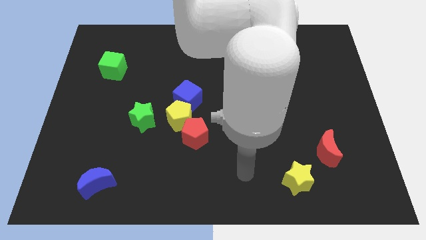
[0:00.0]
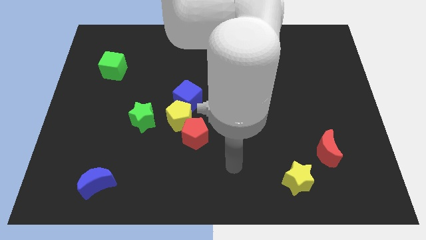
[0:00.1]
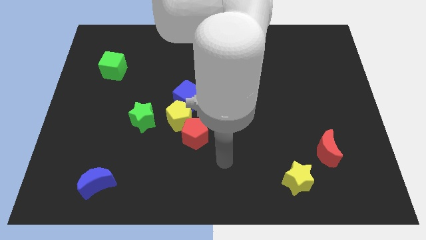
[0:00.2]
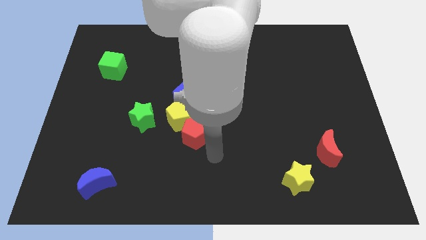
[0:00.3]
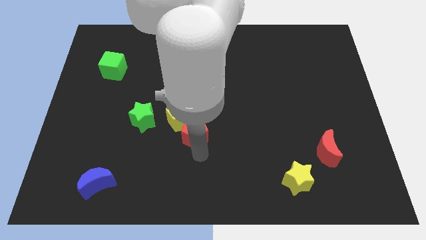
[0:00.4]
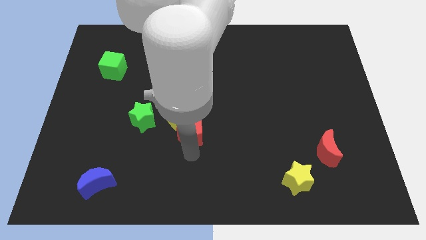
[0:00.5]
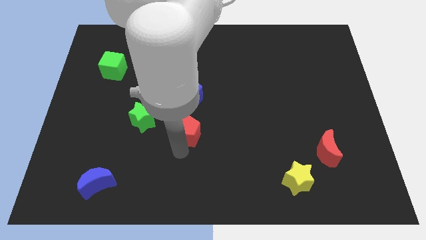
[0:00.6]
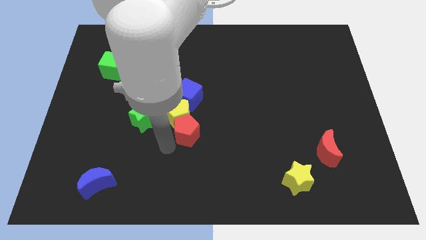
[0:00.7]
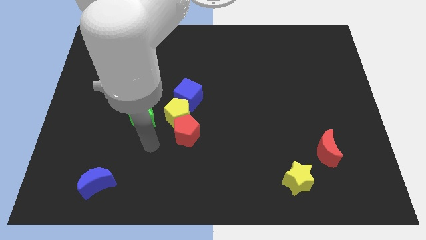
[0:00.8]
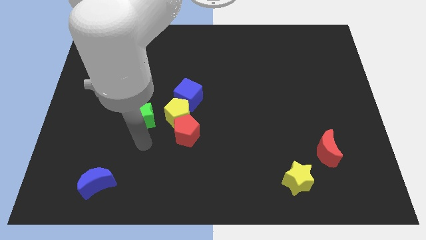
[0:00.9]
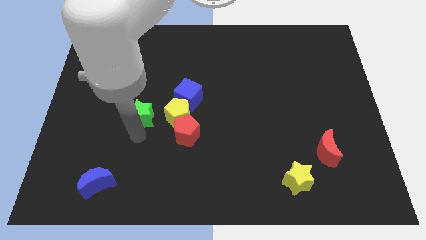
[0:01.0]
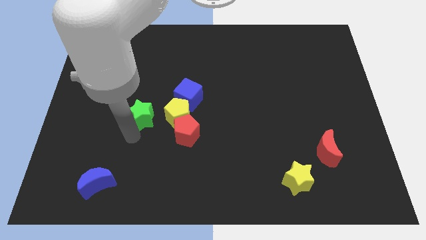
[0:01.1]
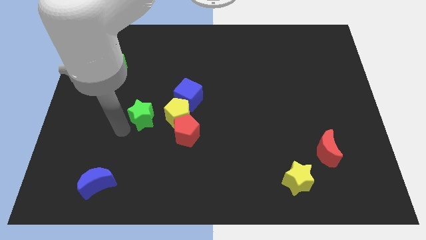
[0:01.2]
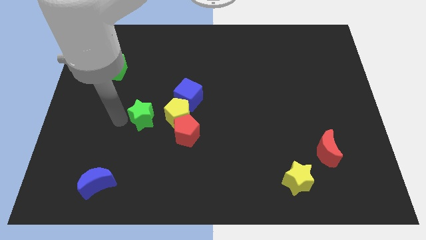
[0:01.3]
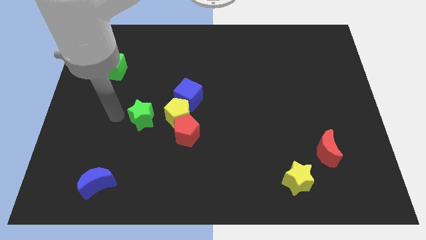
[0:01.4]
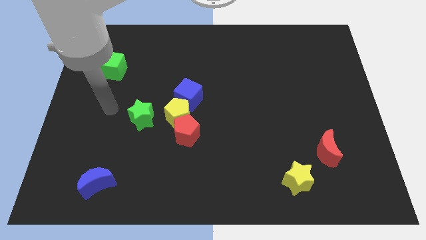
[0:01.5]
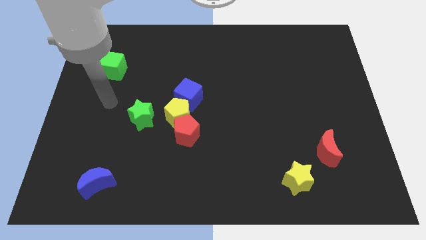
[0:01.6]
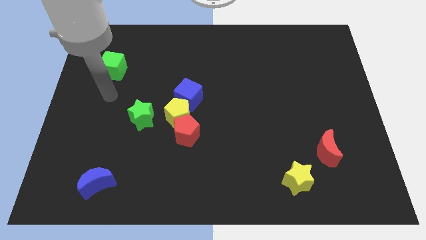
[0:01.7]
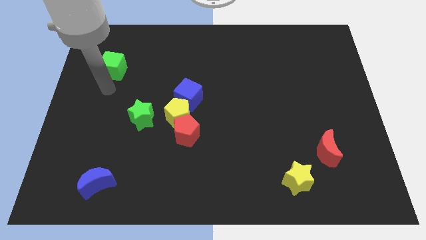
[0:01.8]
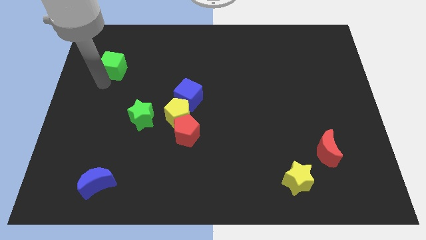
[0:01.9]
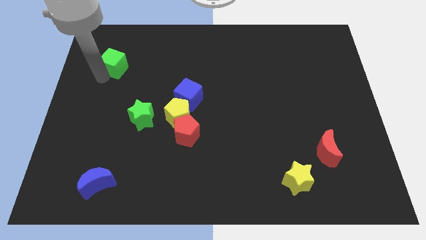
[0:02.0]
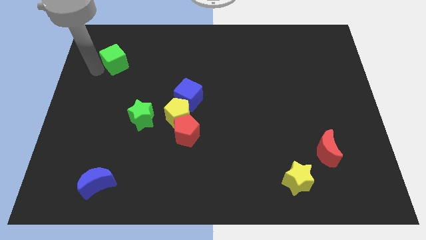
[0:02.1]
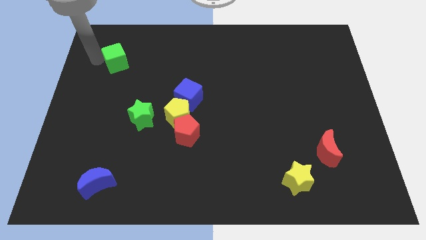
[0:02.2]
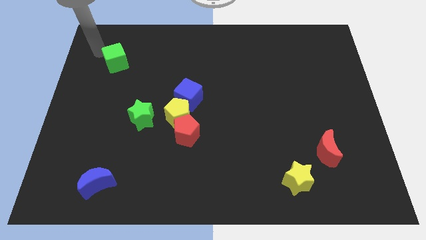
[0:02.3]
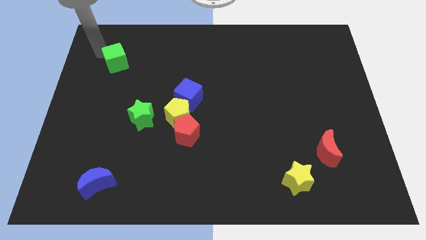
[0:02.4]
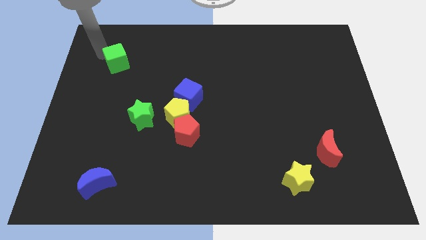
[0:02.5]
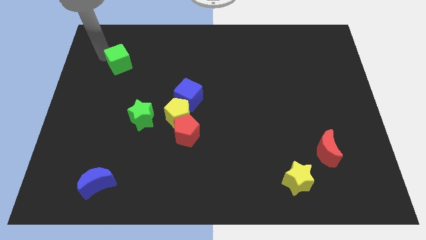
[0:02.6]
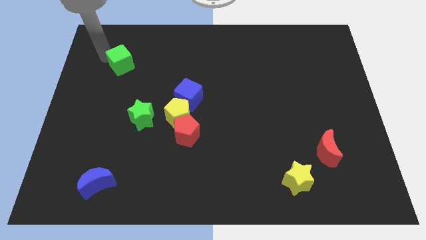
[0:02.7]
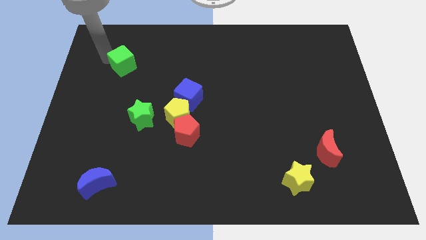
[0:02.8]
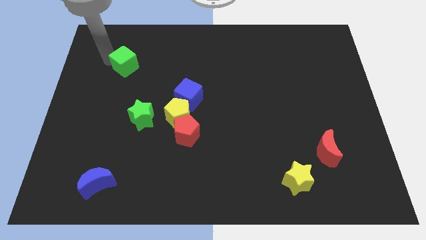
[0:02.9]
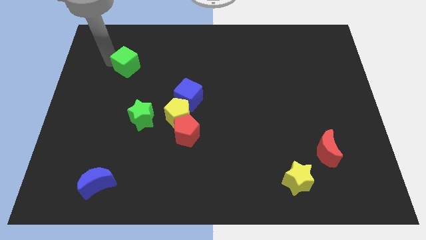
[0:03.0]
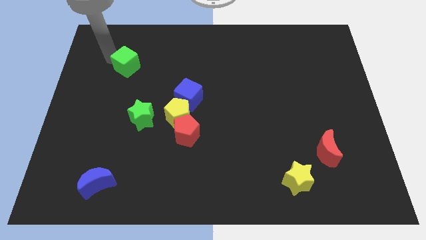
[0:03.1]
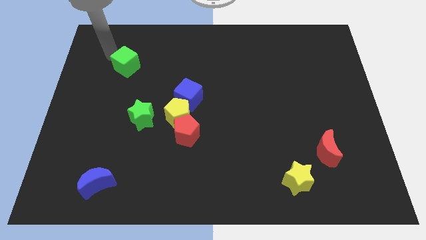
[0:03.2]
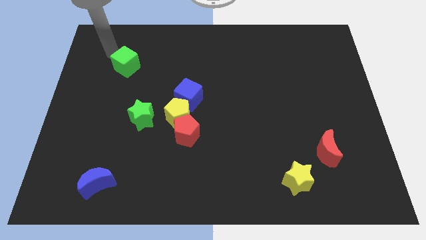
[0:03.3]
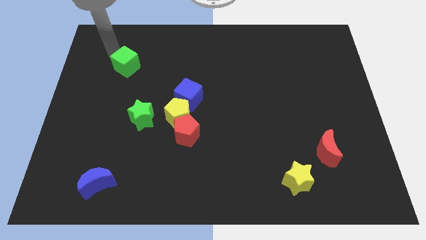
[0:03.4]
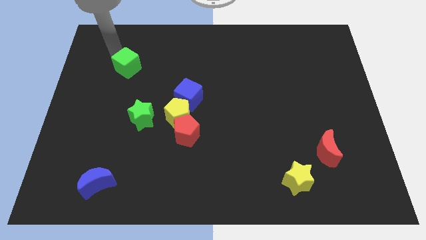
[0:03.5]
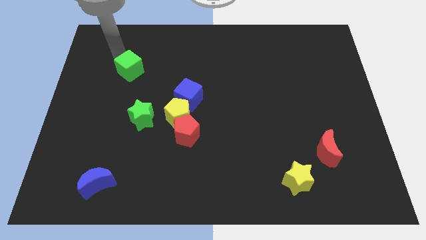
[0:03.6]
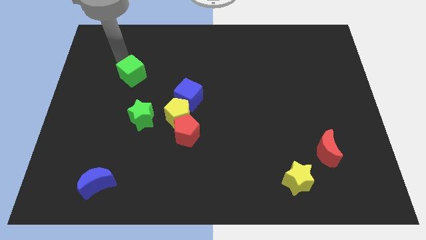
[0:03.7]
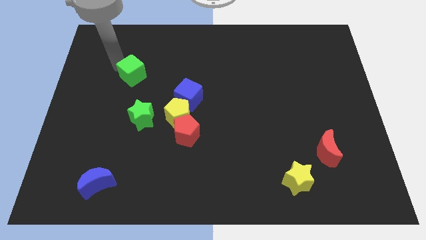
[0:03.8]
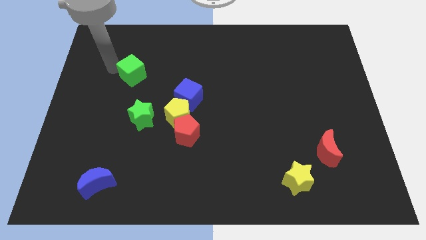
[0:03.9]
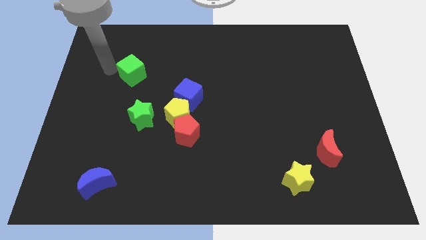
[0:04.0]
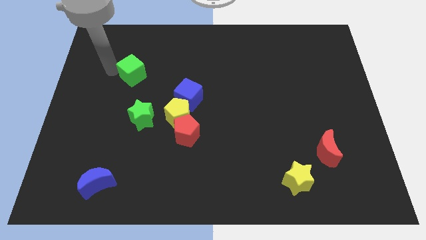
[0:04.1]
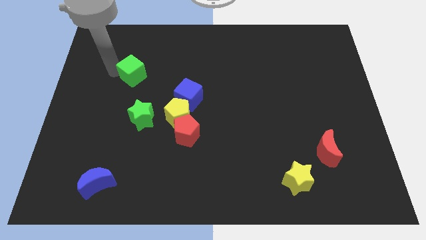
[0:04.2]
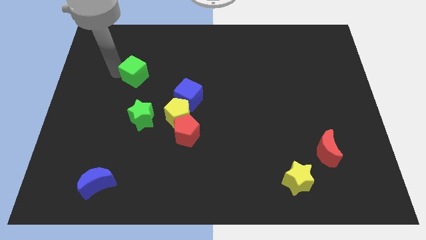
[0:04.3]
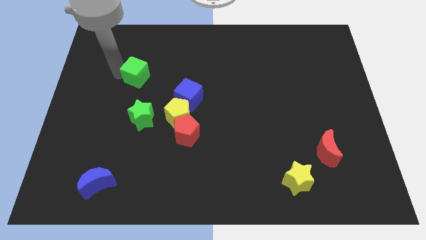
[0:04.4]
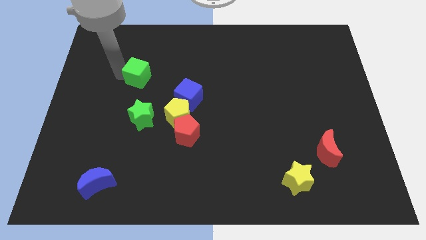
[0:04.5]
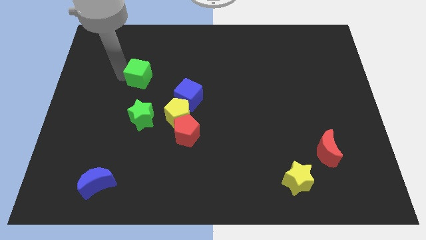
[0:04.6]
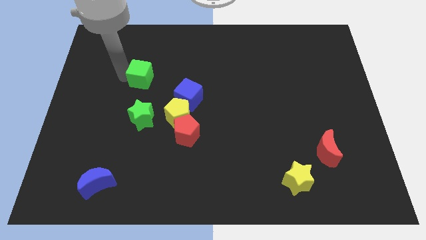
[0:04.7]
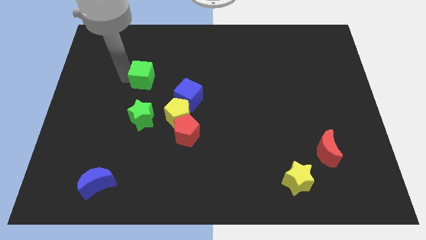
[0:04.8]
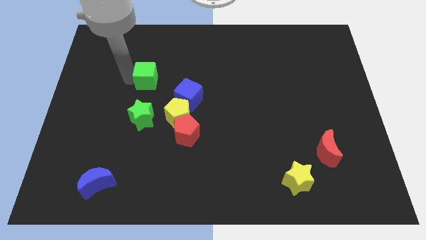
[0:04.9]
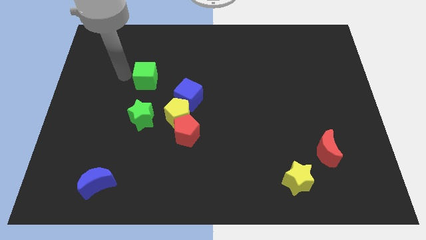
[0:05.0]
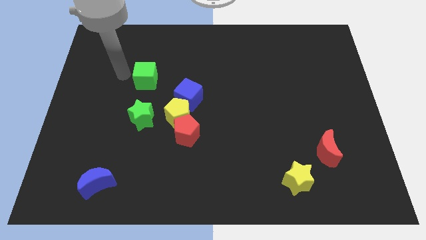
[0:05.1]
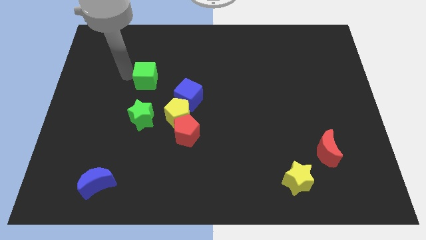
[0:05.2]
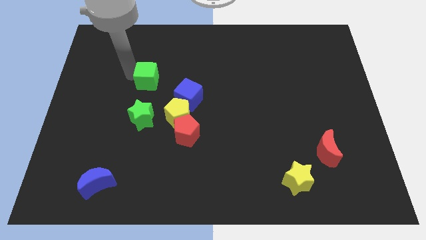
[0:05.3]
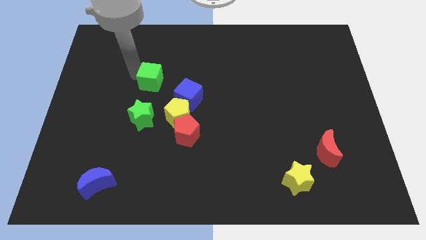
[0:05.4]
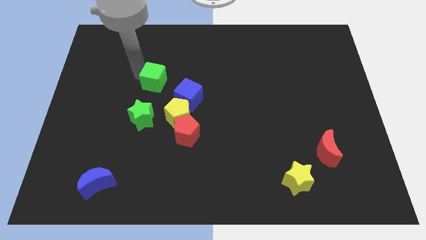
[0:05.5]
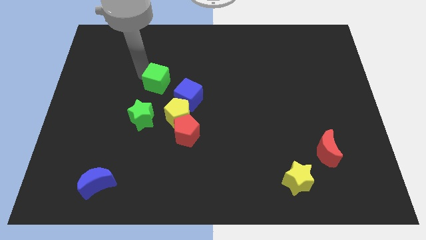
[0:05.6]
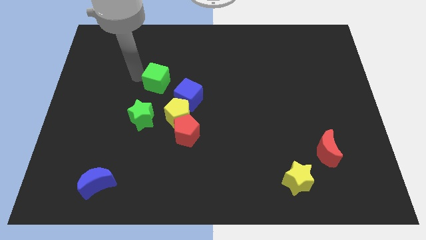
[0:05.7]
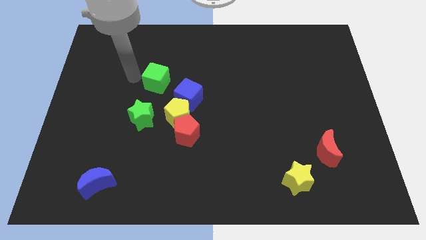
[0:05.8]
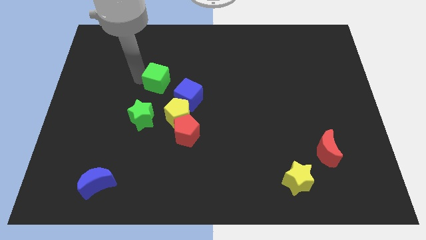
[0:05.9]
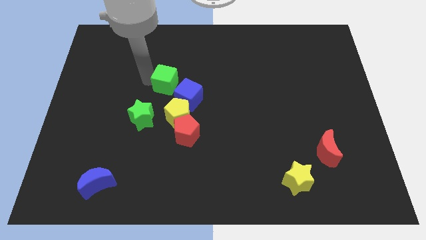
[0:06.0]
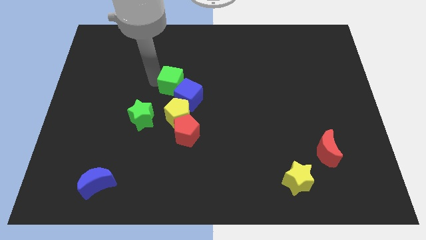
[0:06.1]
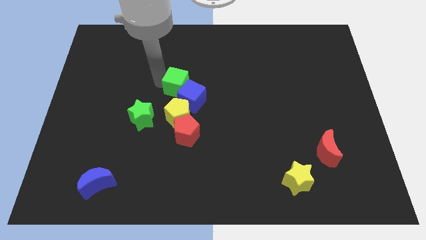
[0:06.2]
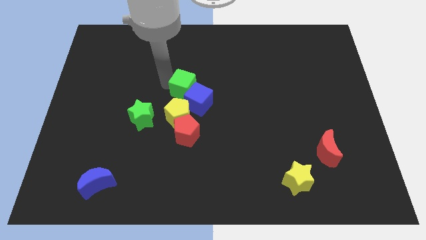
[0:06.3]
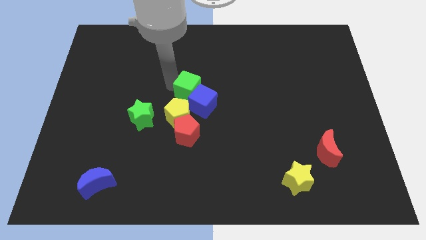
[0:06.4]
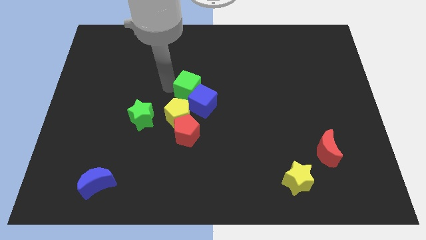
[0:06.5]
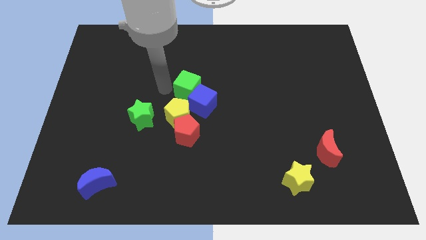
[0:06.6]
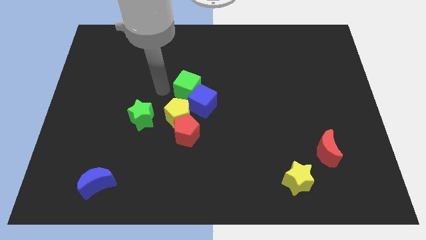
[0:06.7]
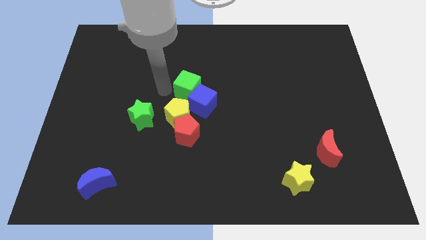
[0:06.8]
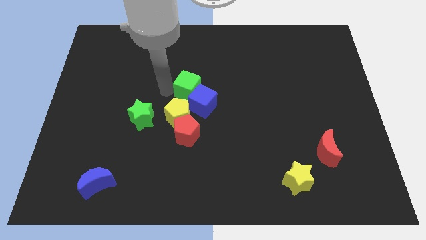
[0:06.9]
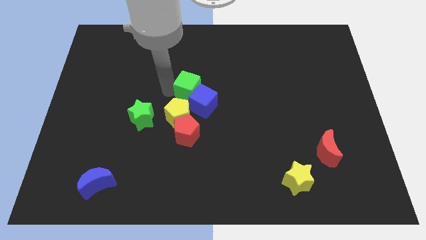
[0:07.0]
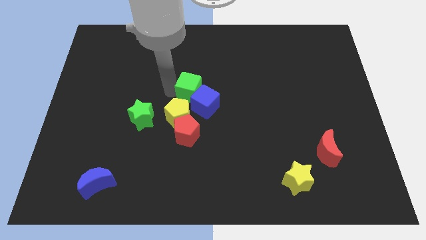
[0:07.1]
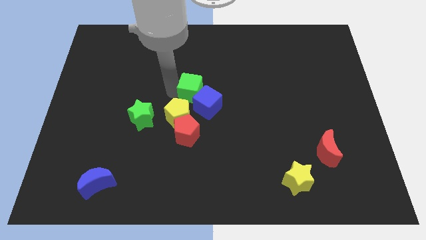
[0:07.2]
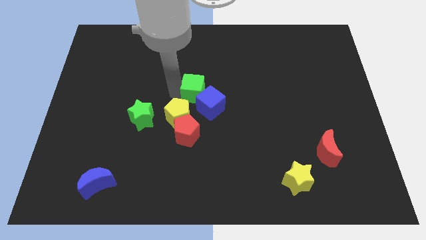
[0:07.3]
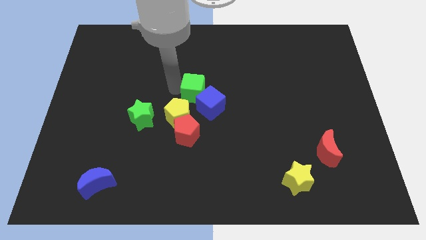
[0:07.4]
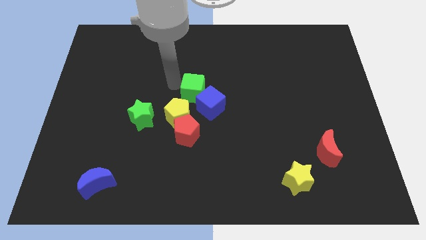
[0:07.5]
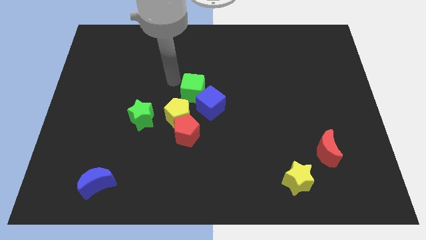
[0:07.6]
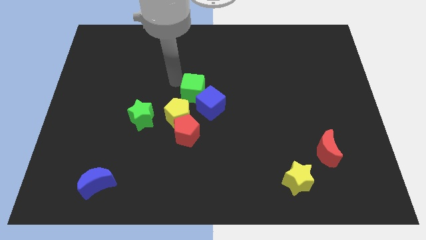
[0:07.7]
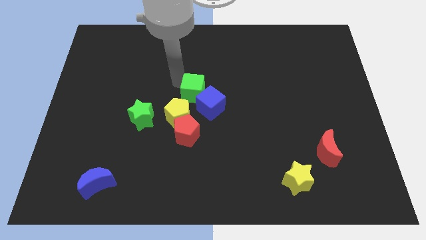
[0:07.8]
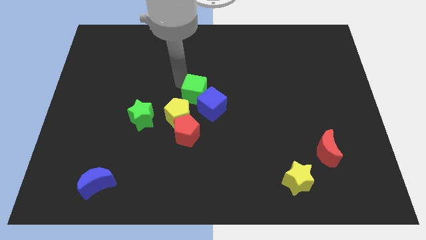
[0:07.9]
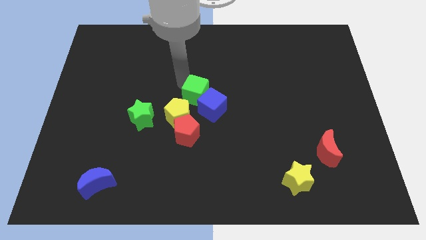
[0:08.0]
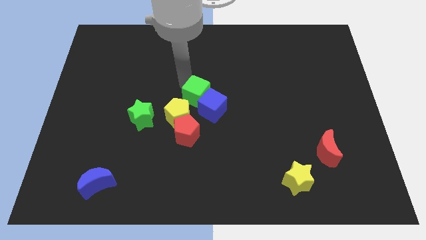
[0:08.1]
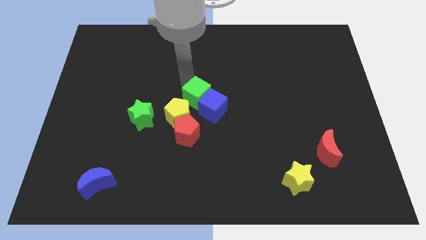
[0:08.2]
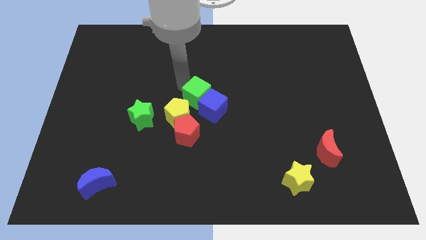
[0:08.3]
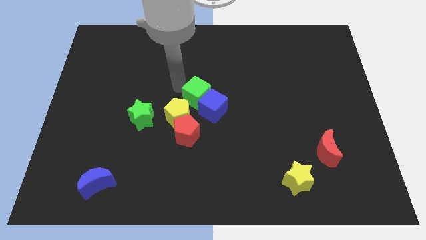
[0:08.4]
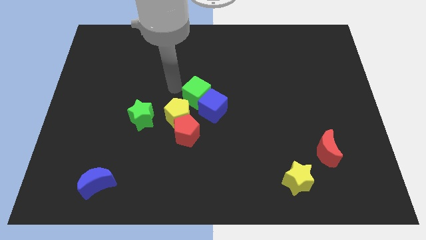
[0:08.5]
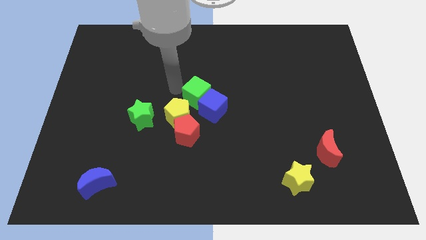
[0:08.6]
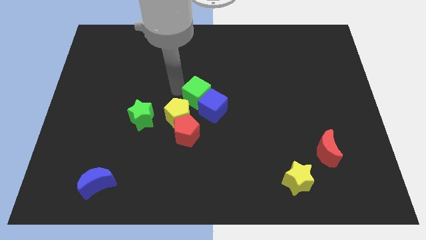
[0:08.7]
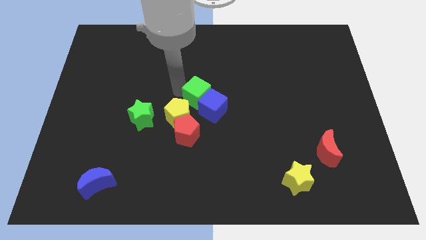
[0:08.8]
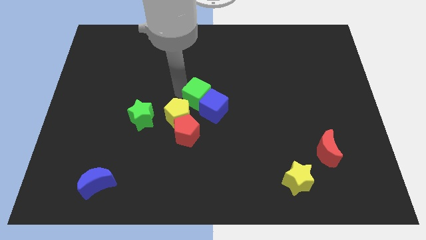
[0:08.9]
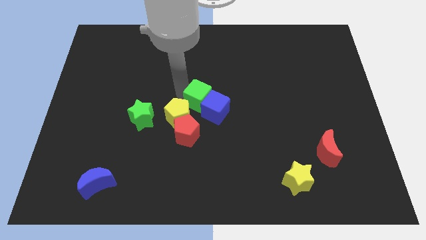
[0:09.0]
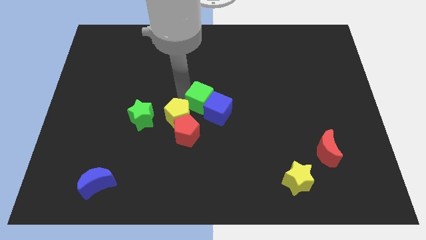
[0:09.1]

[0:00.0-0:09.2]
push the green cube to the top right of the red pentagon
